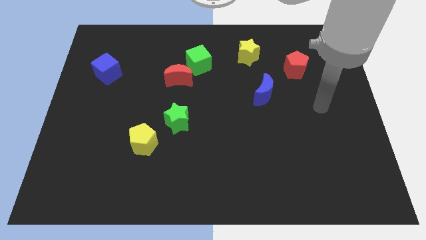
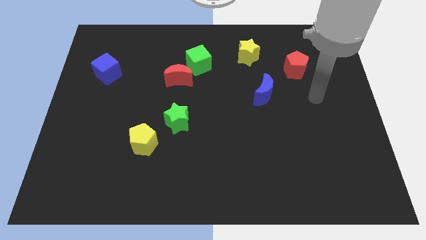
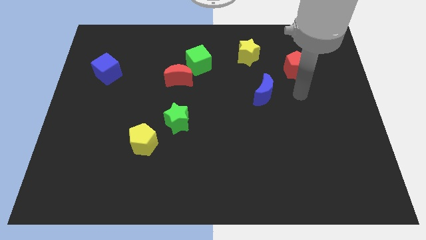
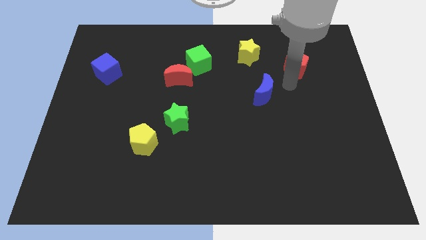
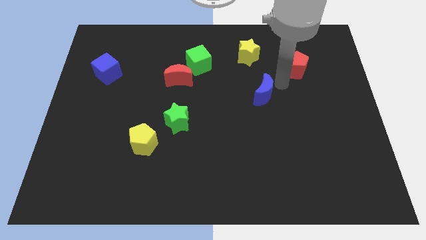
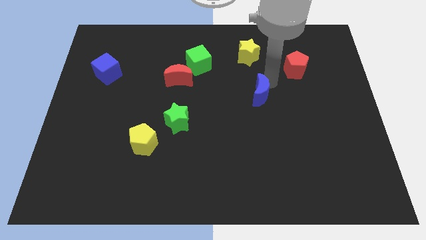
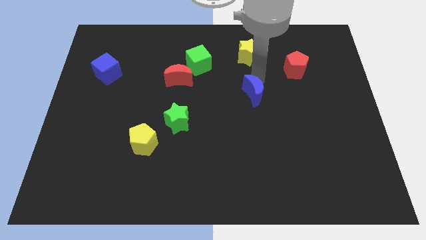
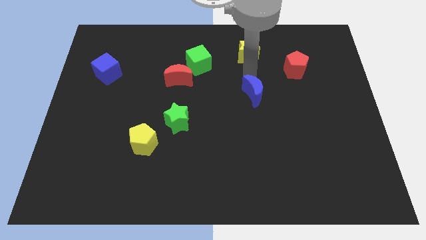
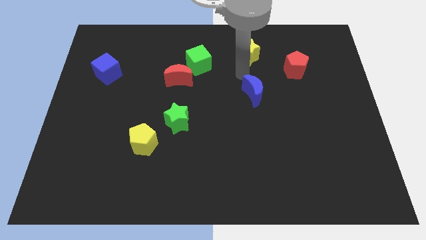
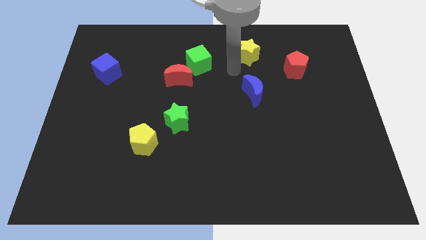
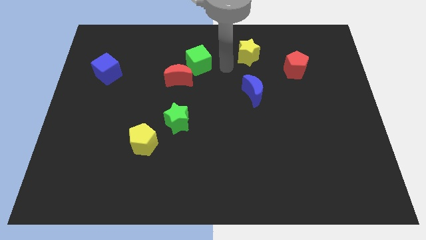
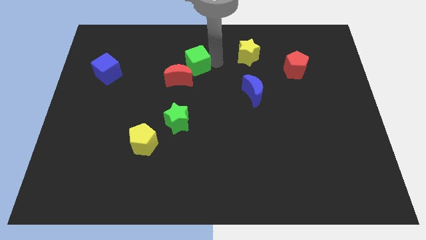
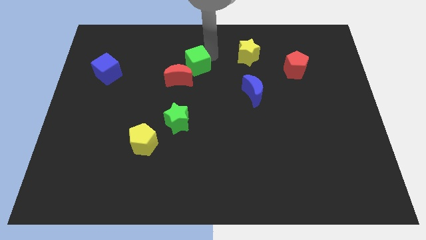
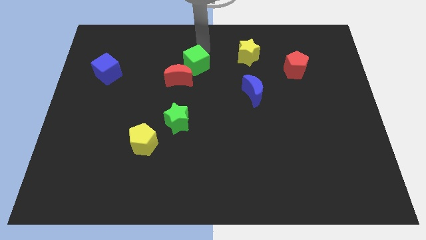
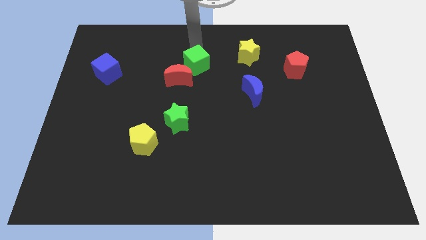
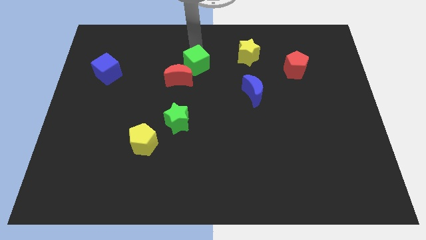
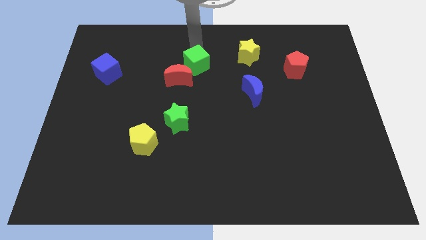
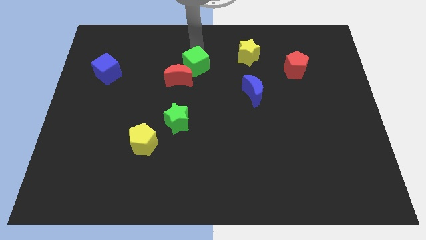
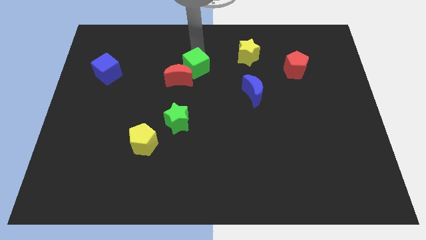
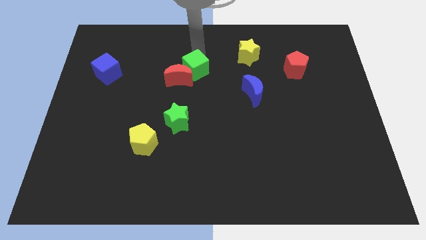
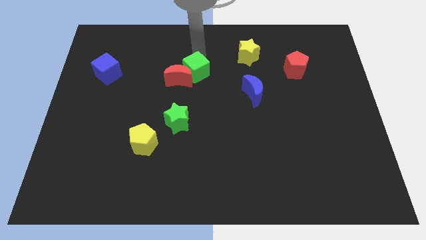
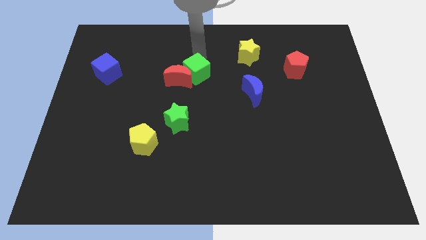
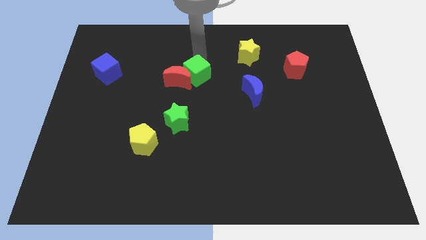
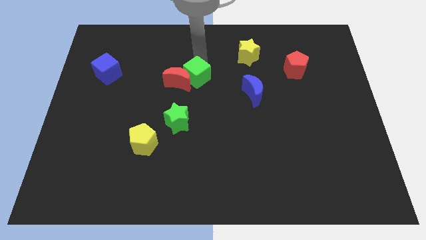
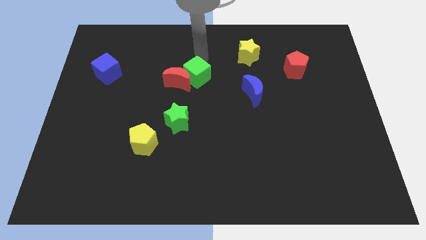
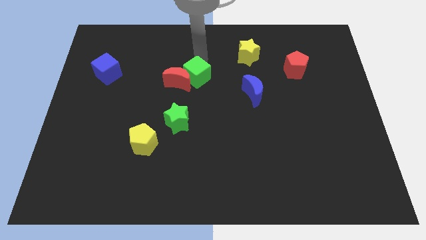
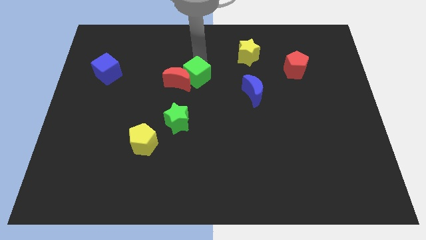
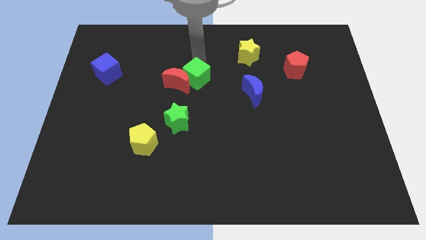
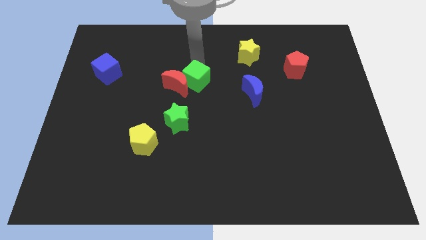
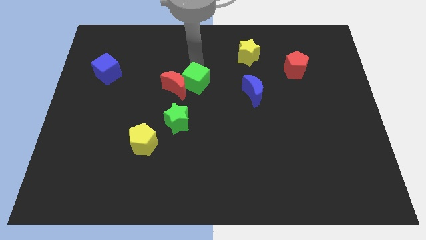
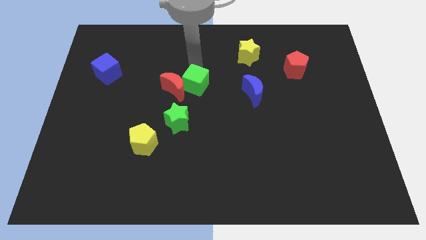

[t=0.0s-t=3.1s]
push the green cube a little bit downwards

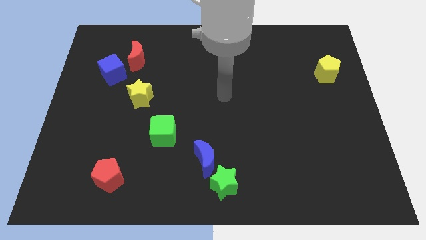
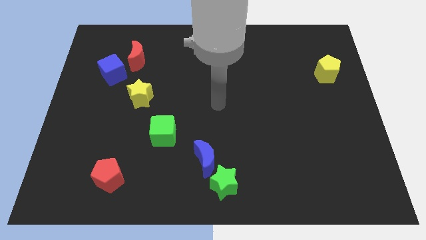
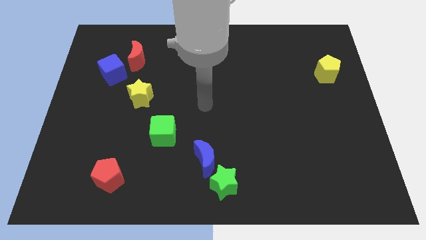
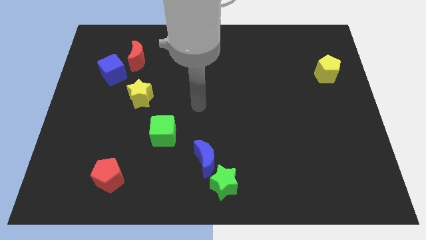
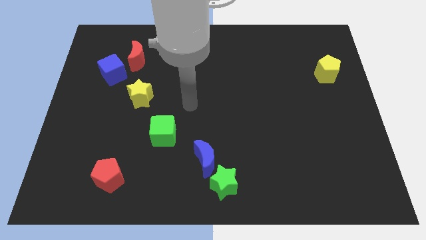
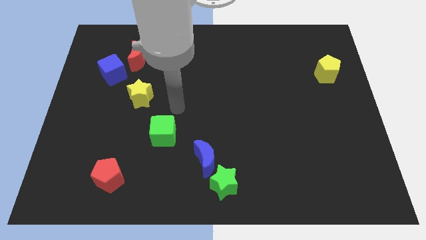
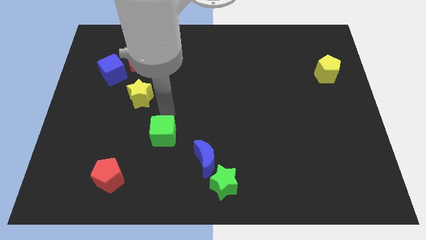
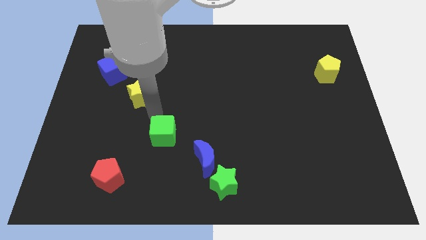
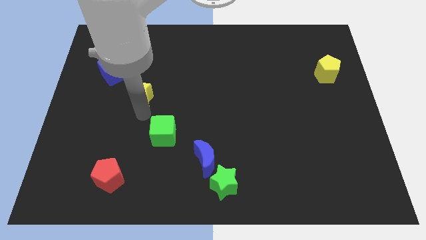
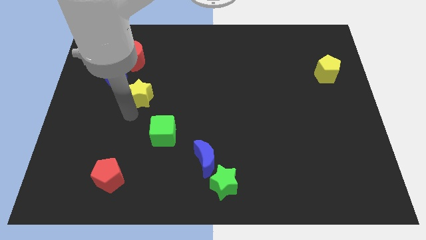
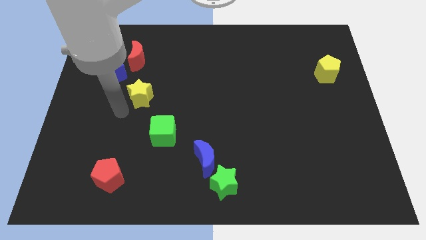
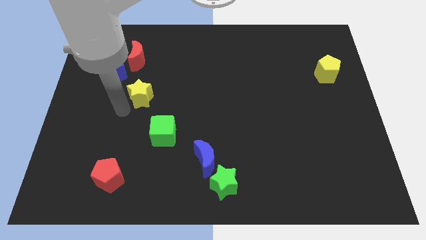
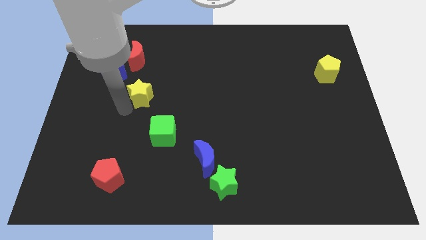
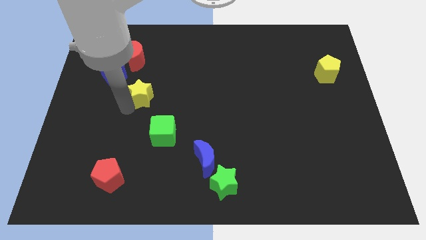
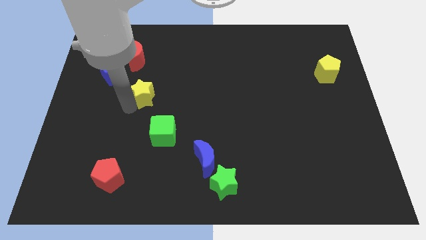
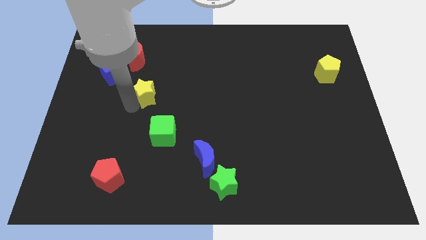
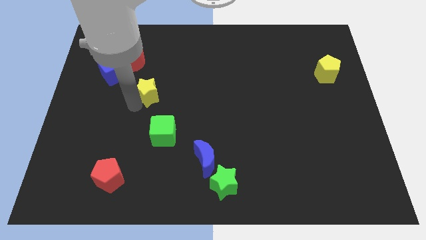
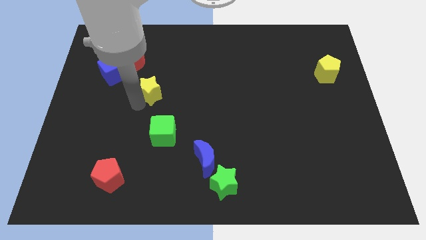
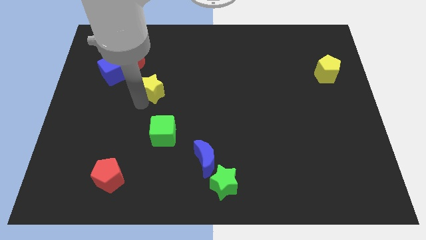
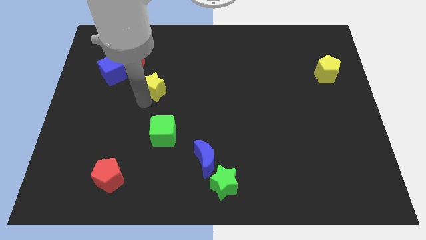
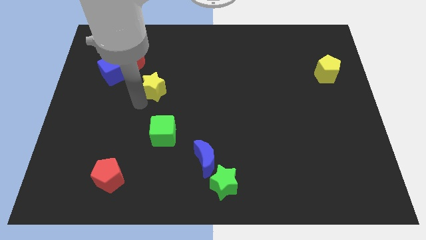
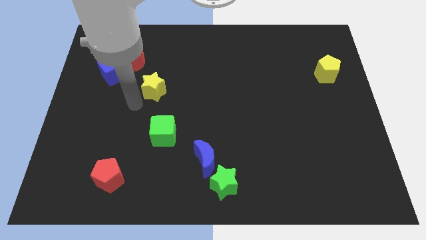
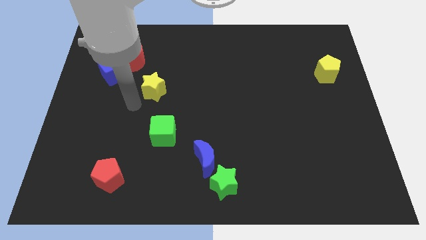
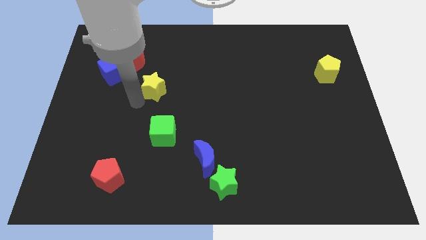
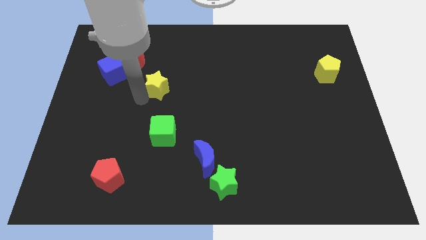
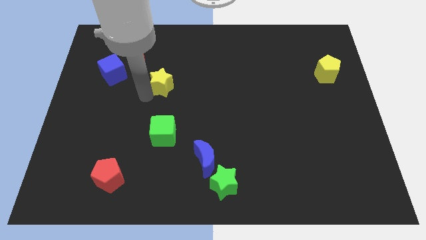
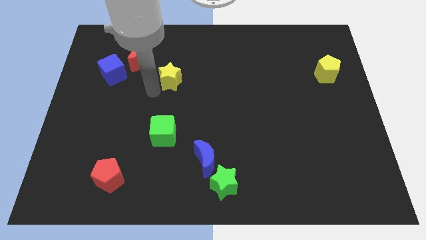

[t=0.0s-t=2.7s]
slide the yellow star diagonally upwards and to the right slightly

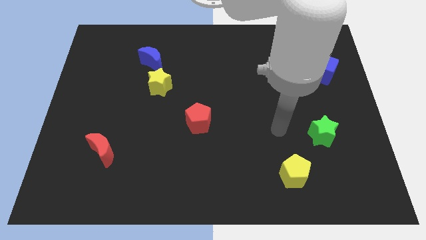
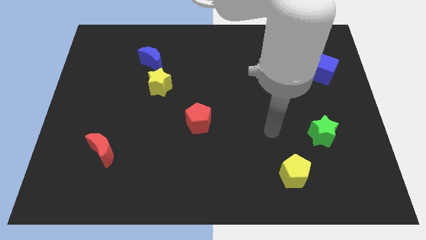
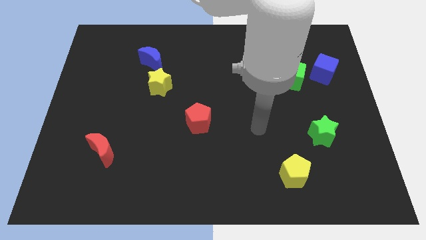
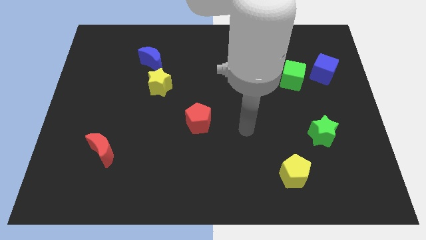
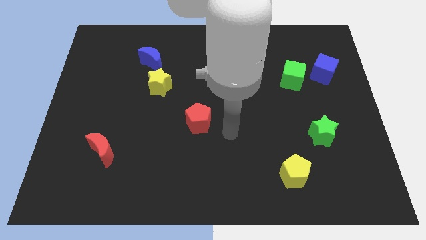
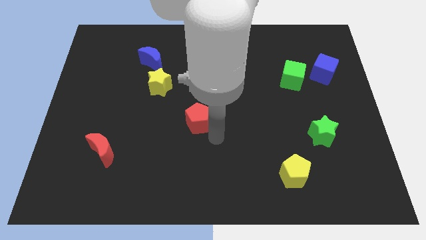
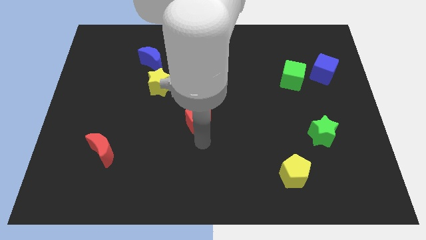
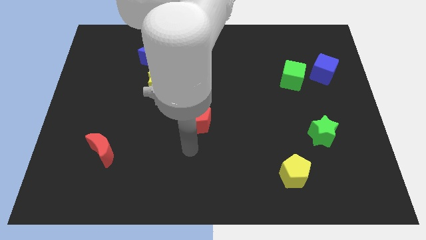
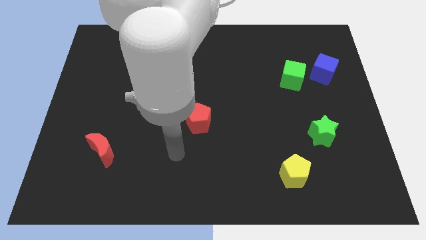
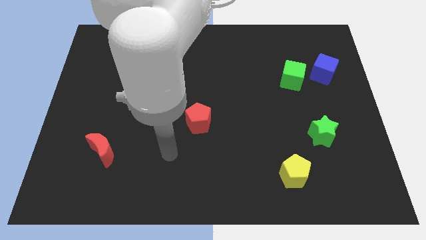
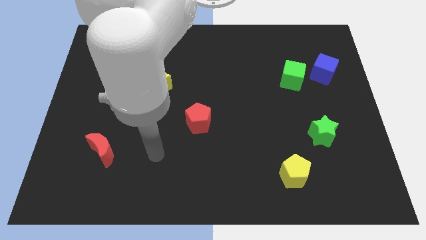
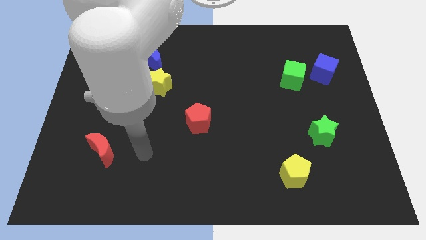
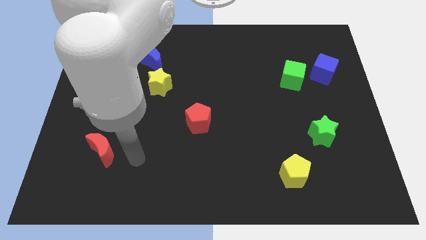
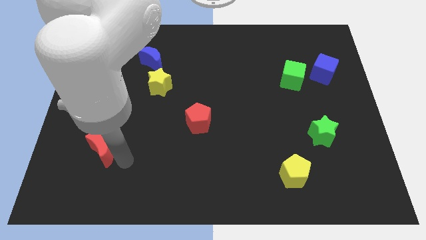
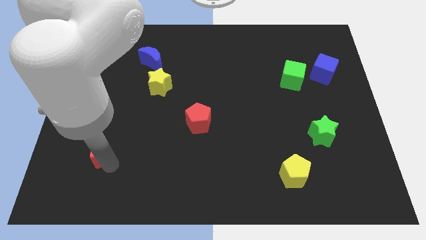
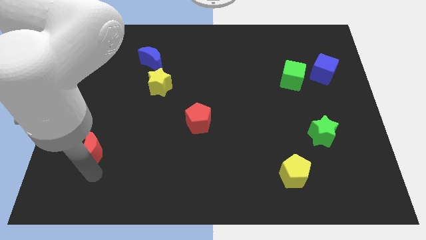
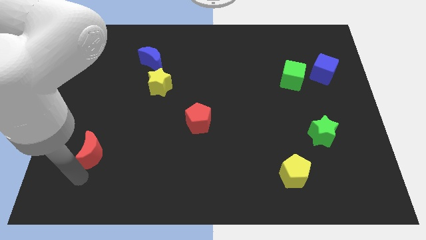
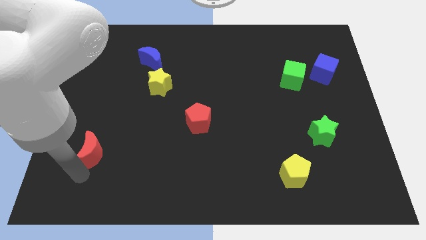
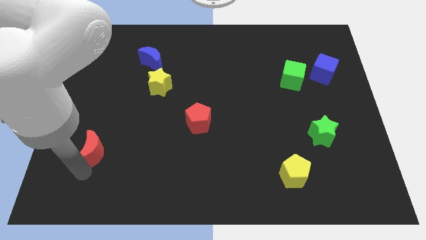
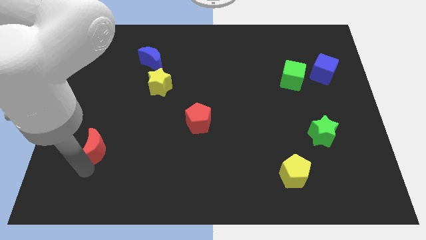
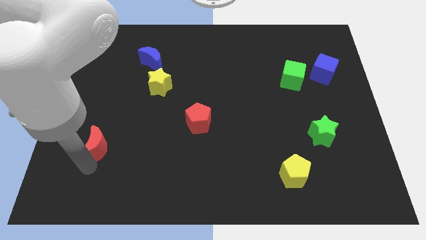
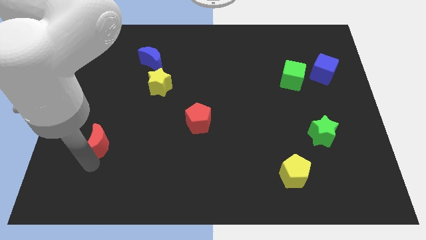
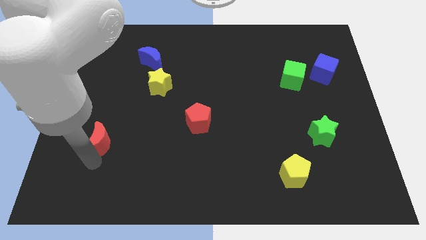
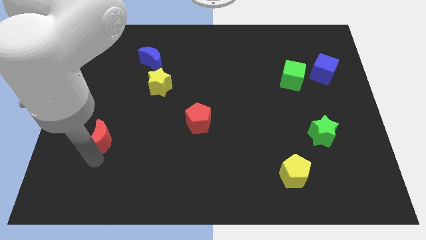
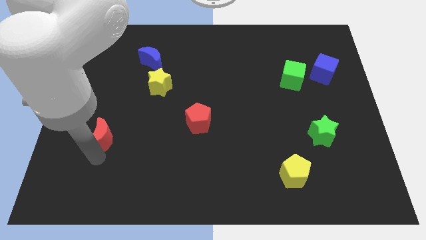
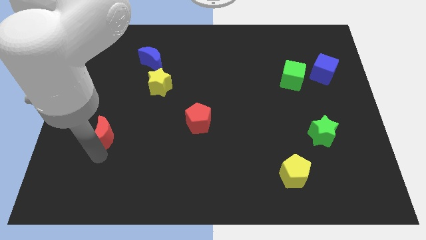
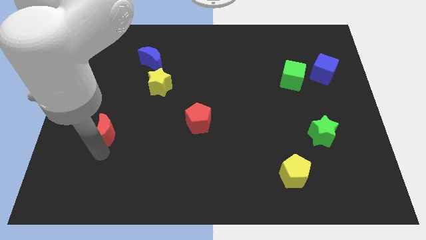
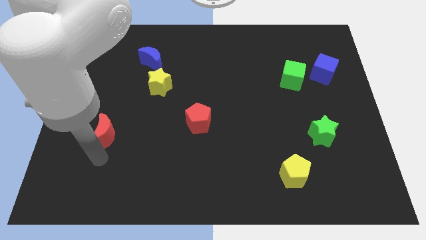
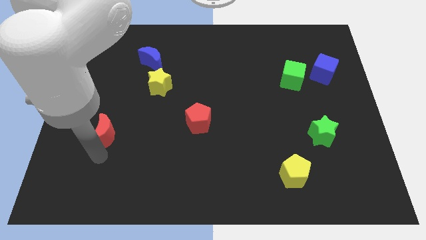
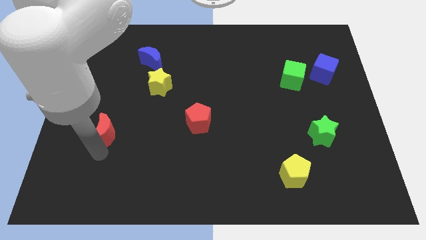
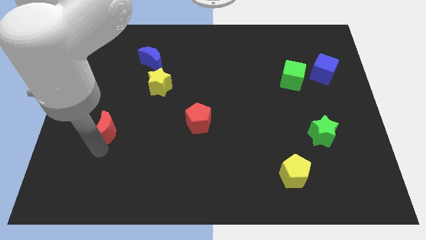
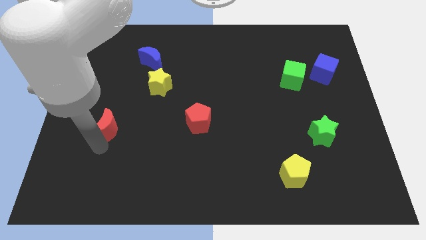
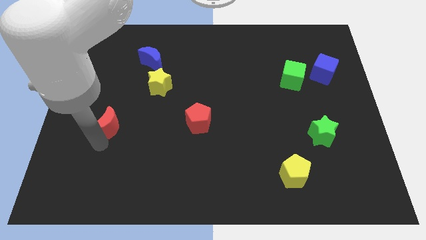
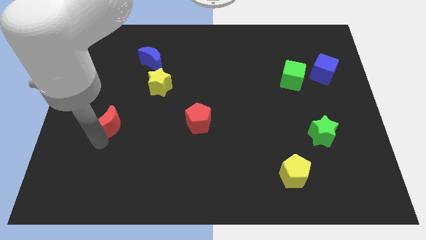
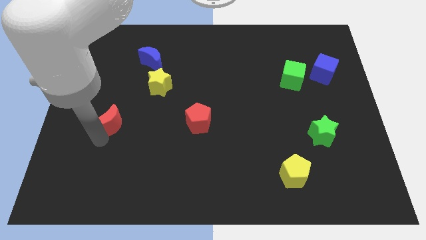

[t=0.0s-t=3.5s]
push the red moon a little upwards
